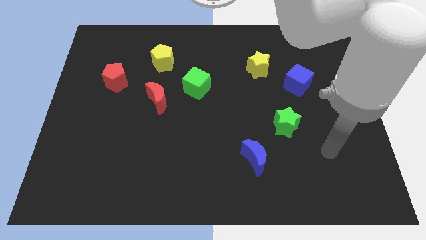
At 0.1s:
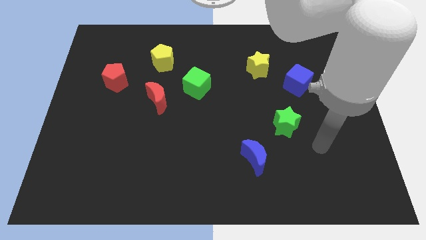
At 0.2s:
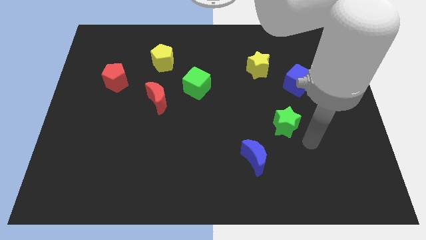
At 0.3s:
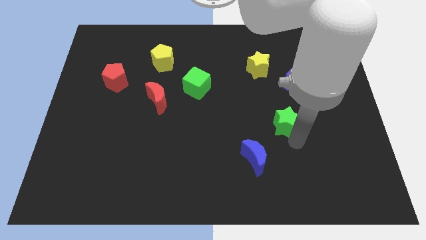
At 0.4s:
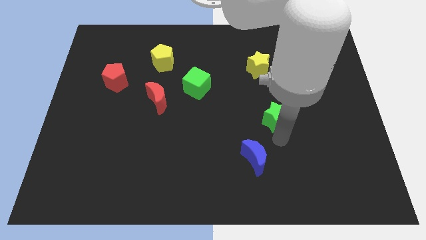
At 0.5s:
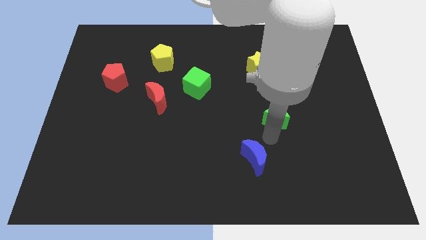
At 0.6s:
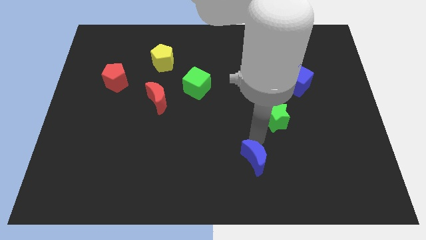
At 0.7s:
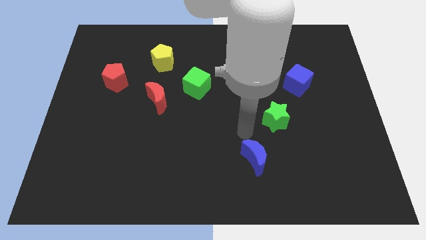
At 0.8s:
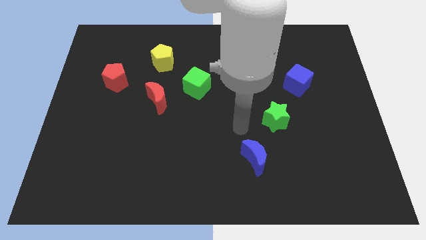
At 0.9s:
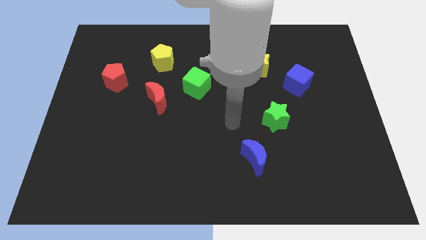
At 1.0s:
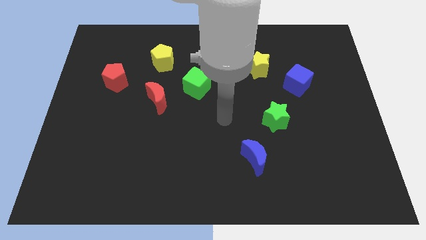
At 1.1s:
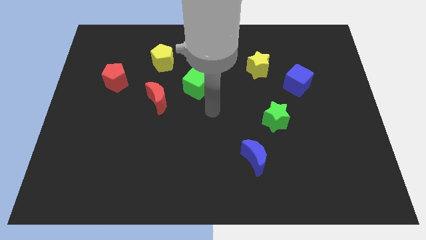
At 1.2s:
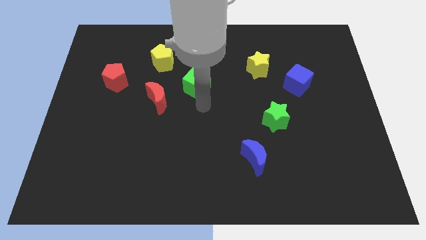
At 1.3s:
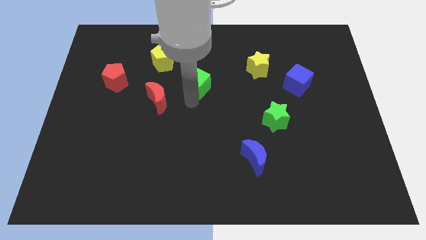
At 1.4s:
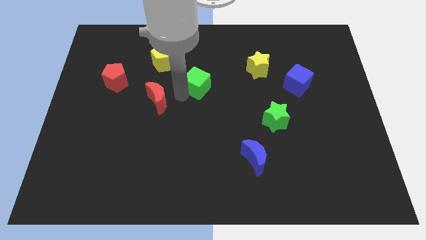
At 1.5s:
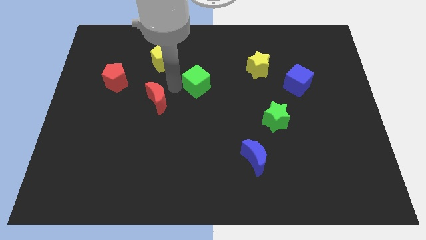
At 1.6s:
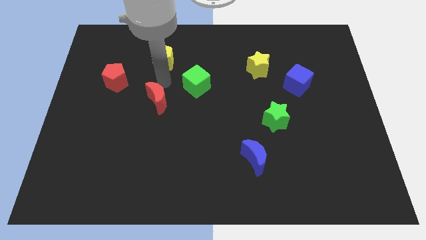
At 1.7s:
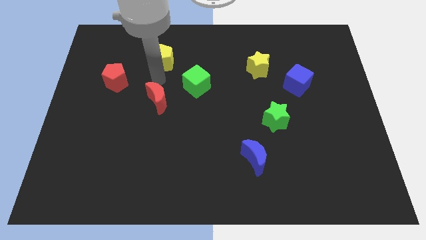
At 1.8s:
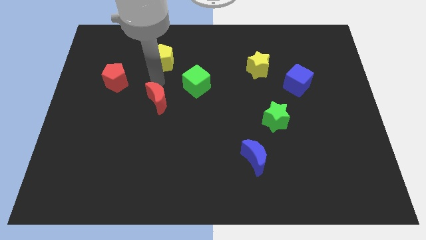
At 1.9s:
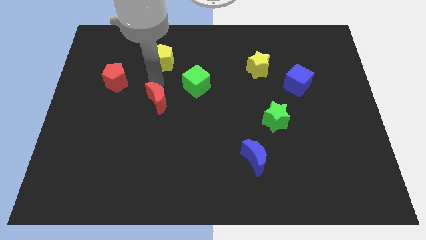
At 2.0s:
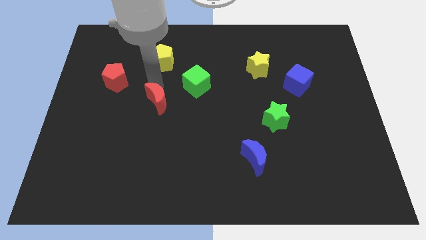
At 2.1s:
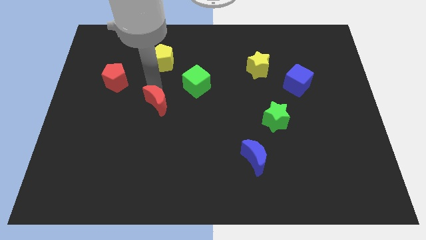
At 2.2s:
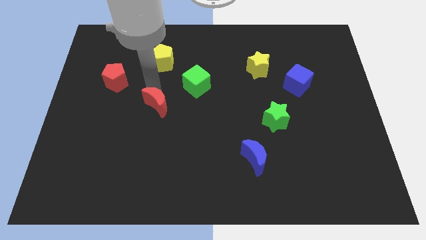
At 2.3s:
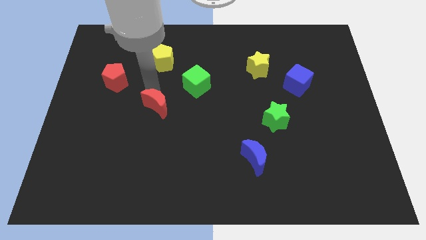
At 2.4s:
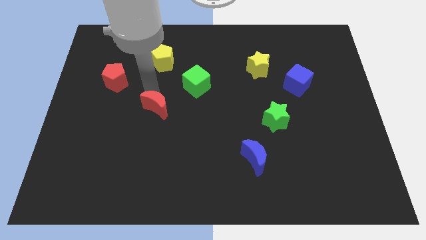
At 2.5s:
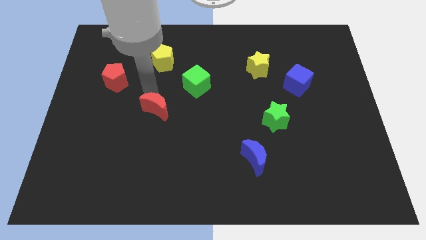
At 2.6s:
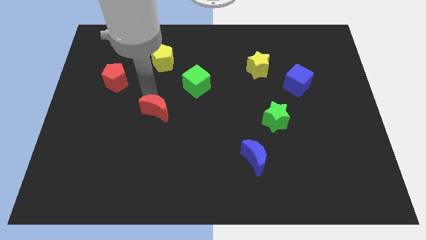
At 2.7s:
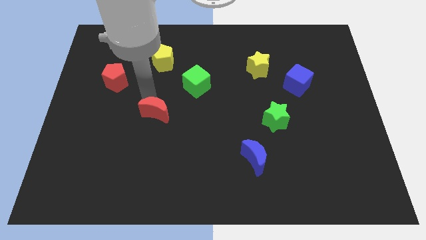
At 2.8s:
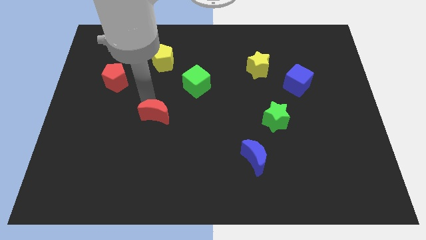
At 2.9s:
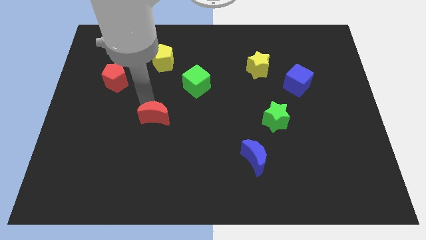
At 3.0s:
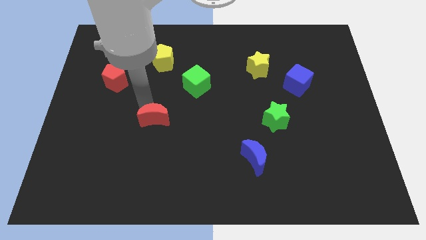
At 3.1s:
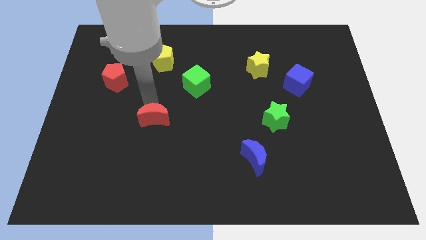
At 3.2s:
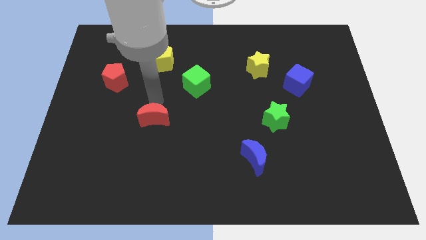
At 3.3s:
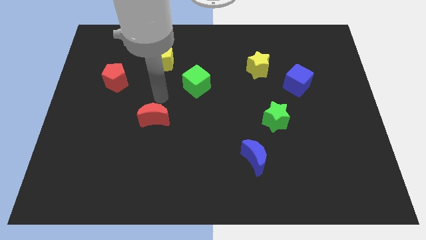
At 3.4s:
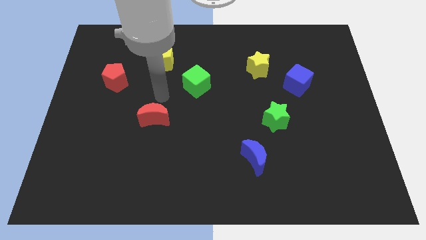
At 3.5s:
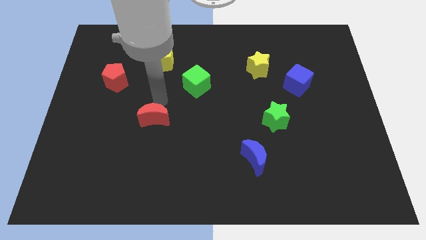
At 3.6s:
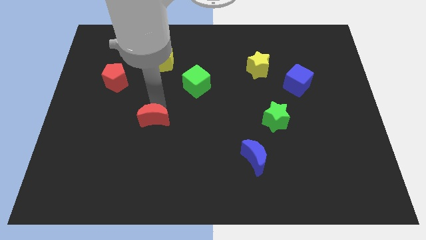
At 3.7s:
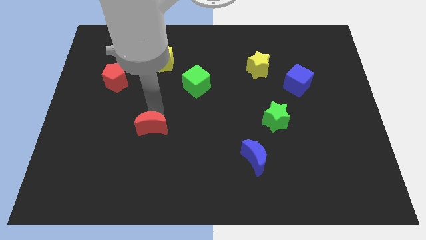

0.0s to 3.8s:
slide the red moon a bit down

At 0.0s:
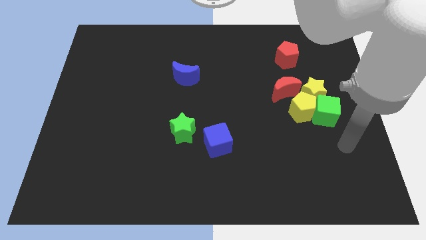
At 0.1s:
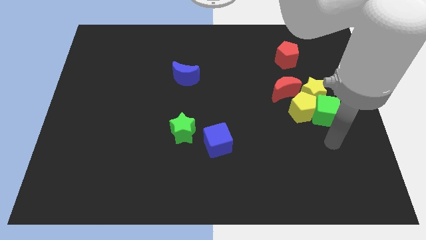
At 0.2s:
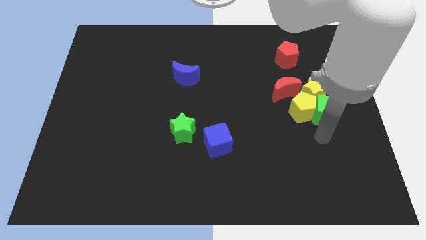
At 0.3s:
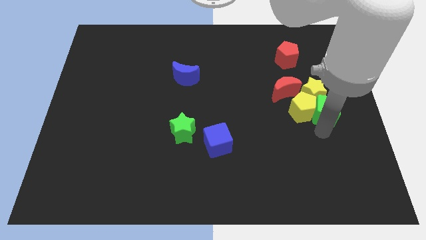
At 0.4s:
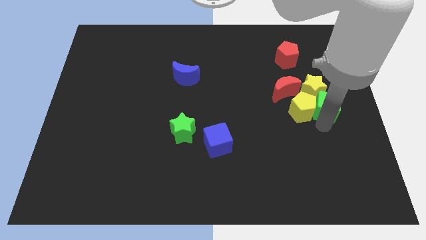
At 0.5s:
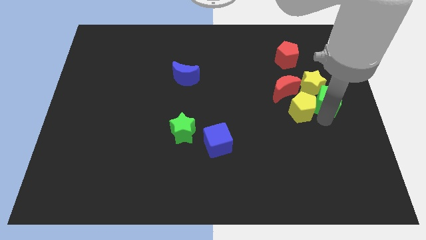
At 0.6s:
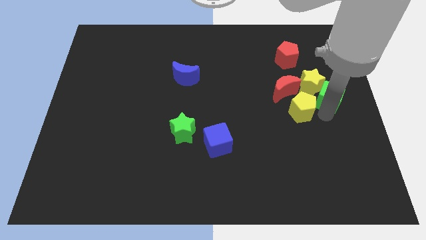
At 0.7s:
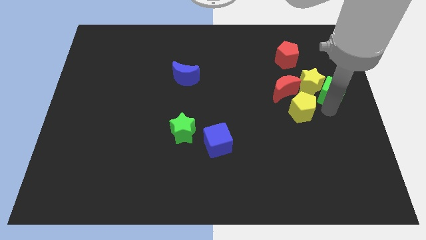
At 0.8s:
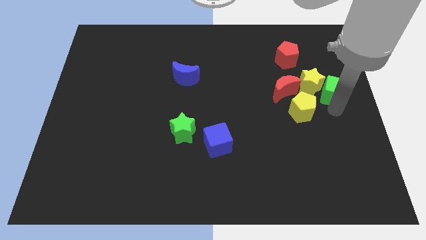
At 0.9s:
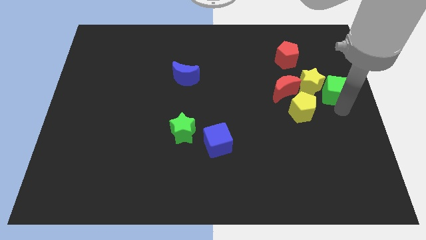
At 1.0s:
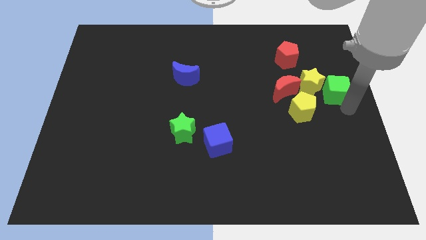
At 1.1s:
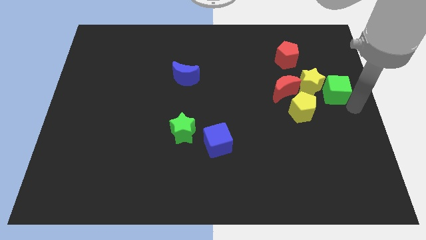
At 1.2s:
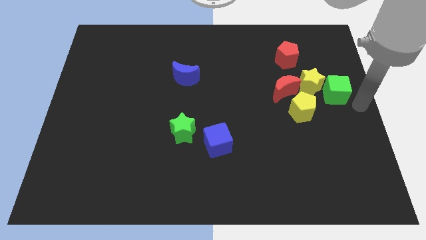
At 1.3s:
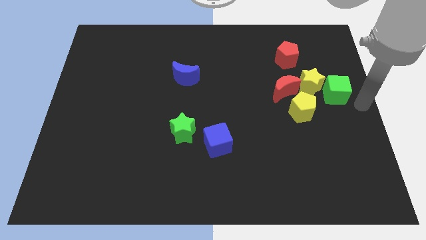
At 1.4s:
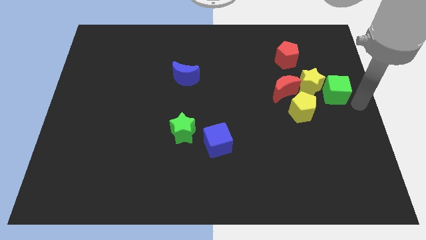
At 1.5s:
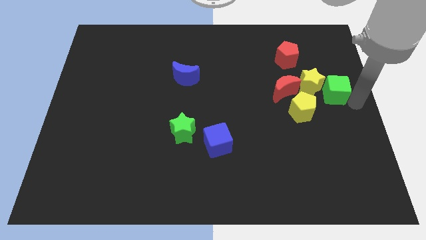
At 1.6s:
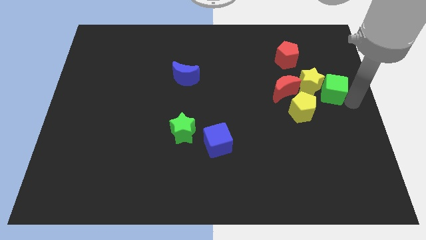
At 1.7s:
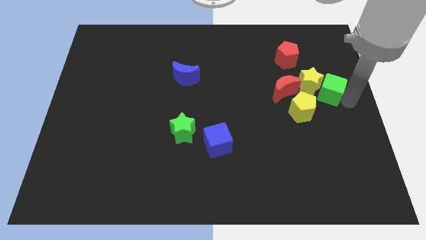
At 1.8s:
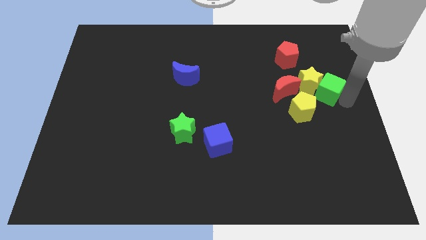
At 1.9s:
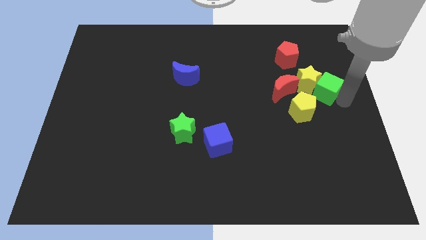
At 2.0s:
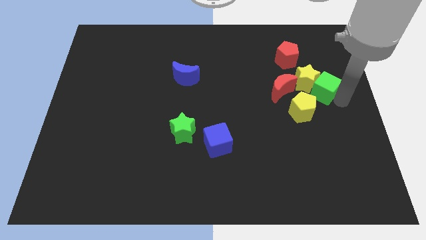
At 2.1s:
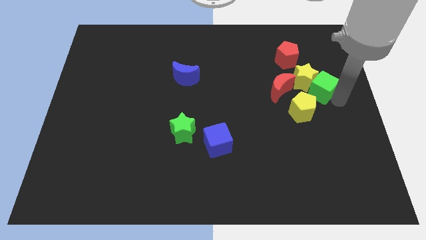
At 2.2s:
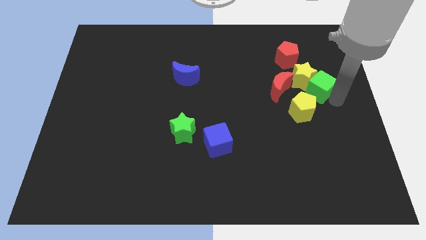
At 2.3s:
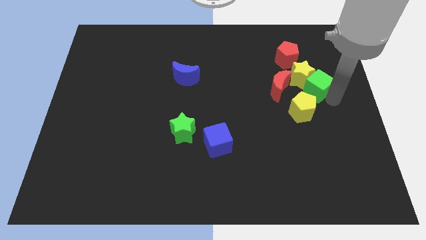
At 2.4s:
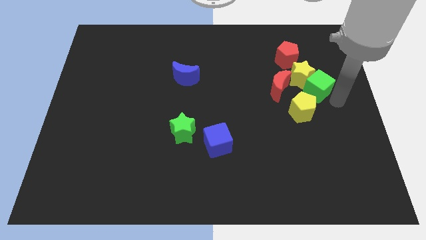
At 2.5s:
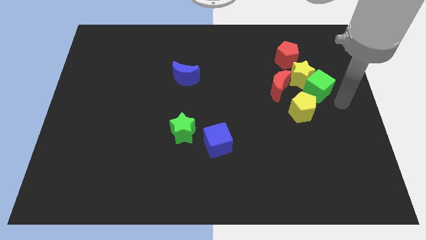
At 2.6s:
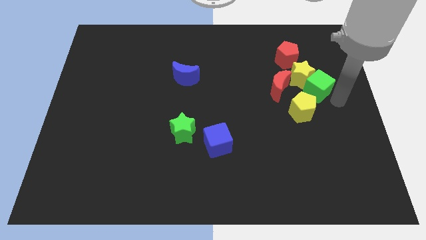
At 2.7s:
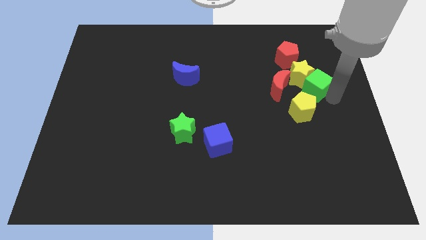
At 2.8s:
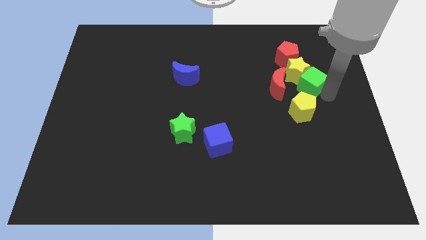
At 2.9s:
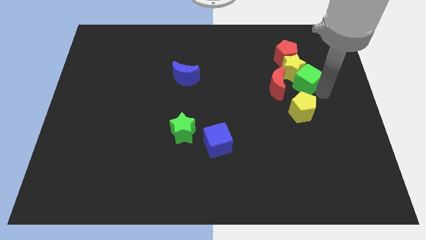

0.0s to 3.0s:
slightly slide the green cube diagonally upwards and to the left

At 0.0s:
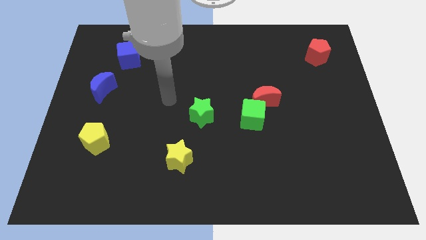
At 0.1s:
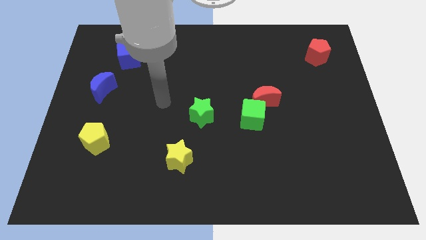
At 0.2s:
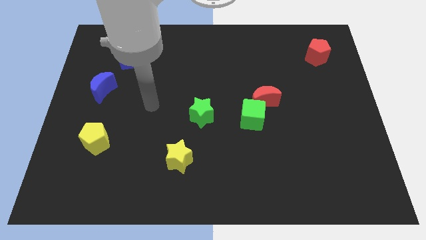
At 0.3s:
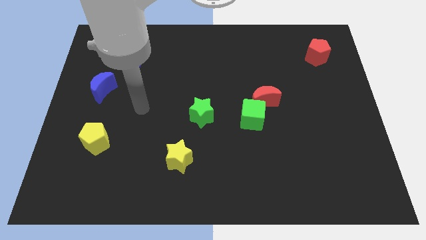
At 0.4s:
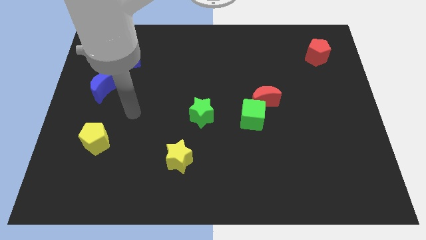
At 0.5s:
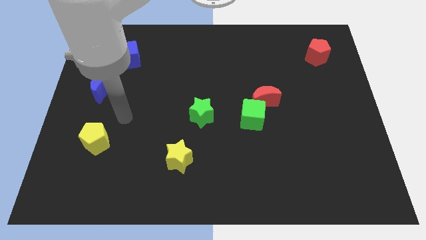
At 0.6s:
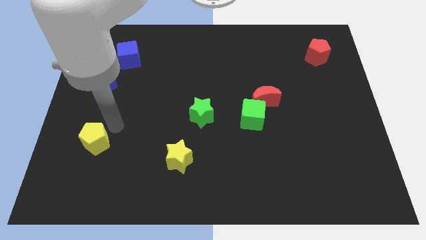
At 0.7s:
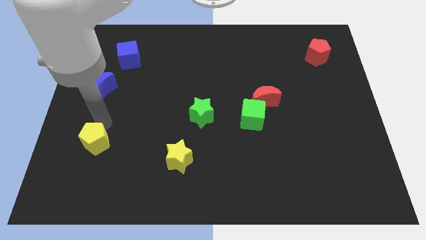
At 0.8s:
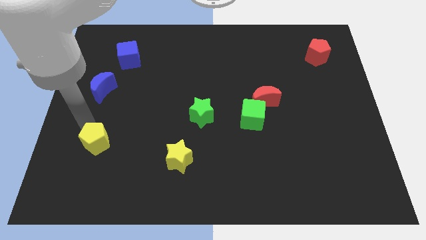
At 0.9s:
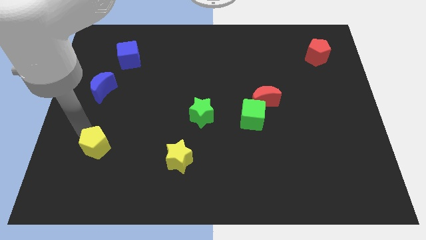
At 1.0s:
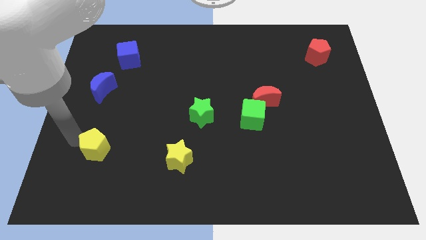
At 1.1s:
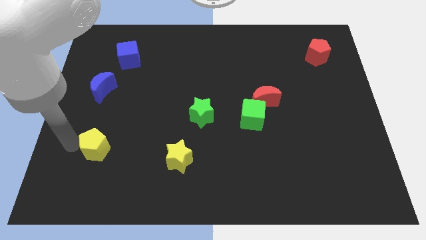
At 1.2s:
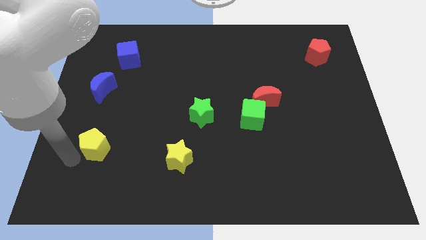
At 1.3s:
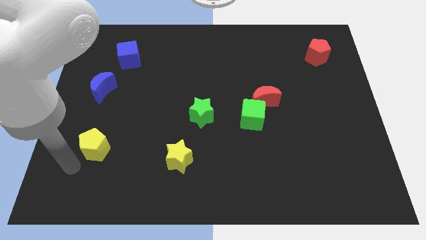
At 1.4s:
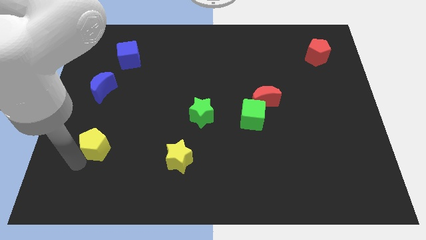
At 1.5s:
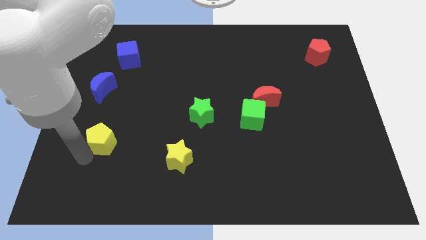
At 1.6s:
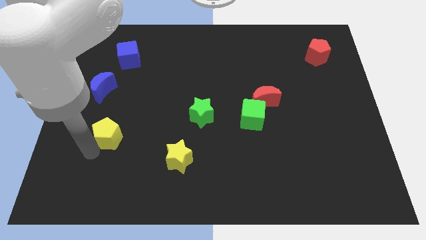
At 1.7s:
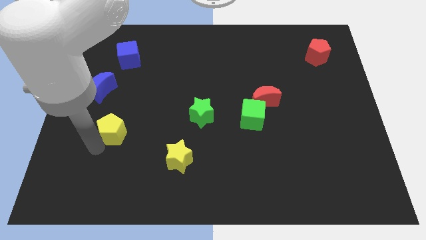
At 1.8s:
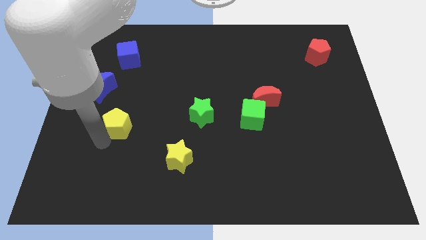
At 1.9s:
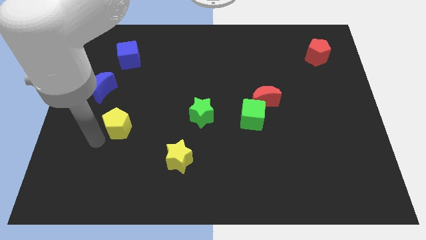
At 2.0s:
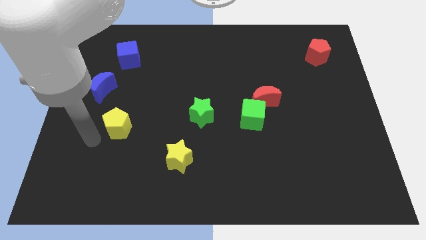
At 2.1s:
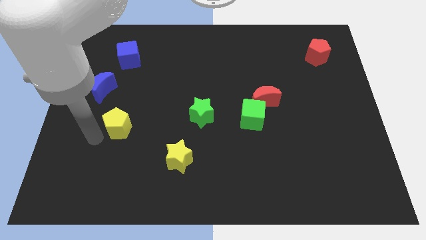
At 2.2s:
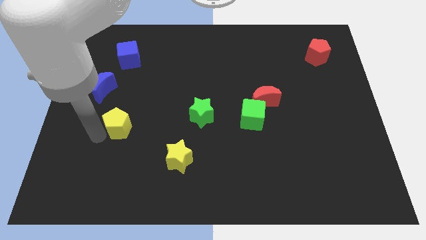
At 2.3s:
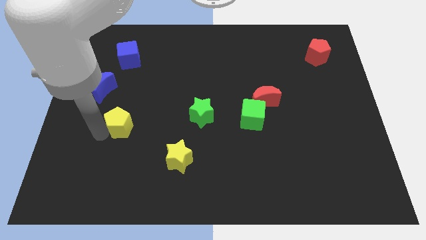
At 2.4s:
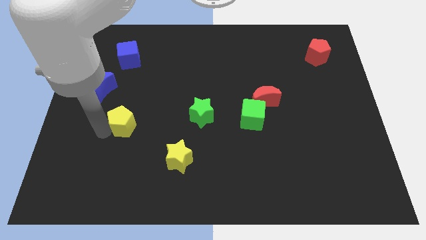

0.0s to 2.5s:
slide the yellow pentagon a little up and right diagonally
